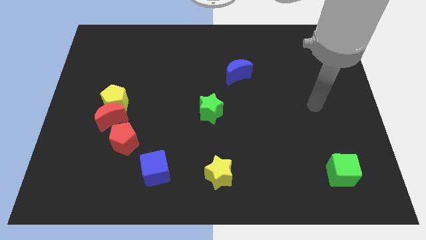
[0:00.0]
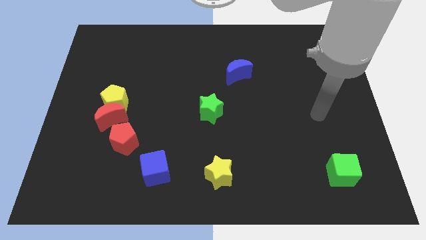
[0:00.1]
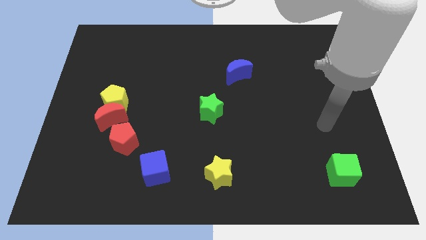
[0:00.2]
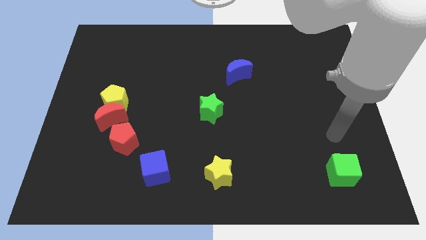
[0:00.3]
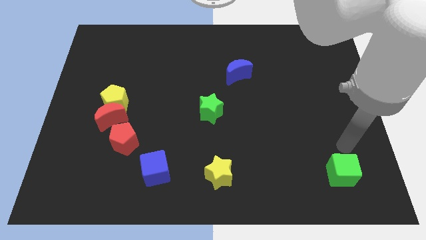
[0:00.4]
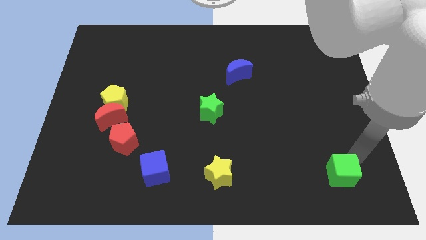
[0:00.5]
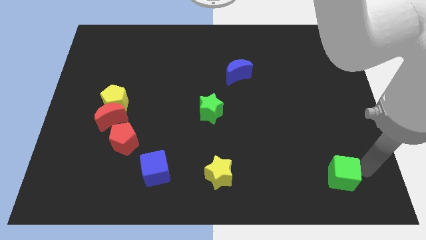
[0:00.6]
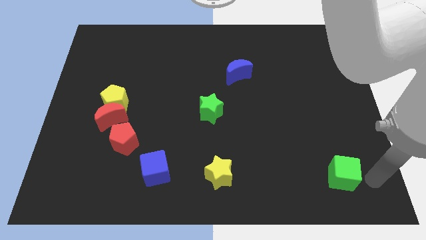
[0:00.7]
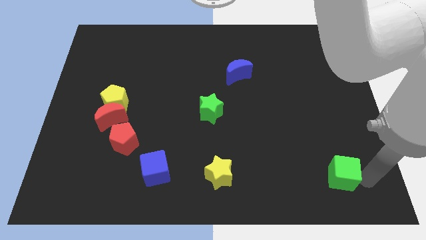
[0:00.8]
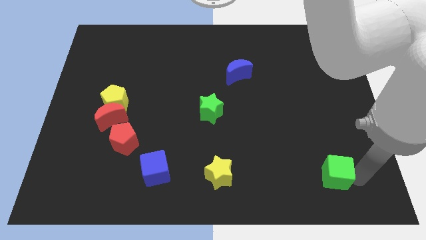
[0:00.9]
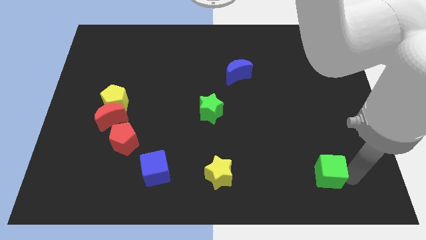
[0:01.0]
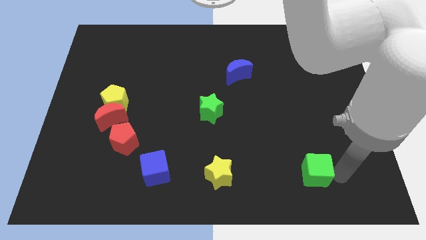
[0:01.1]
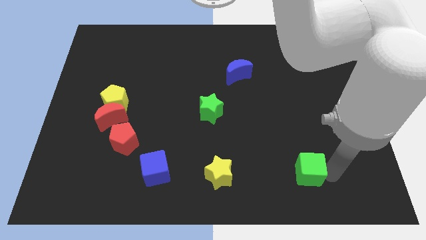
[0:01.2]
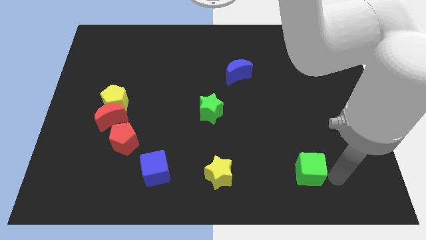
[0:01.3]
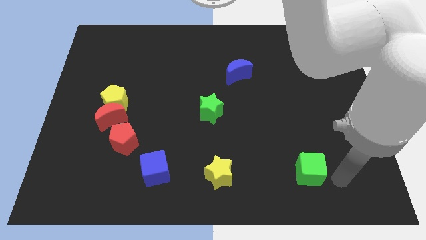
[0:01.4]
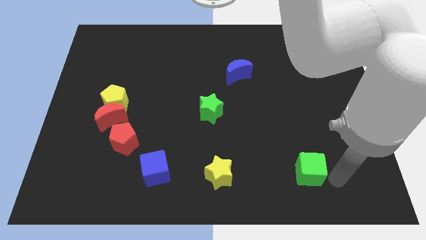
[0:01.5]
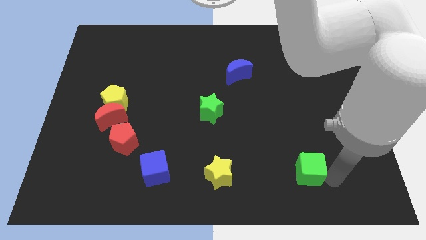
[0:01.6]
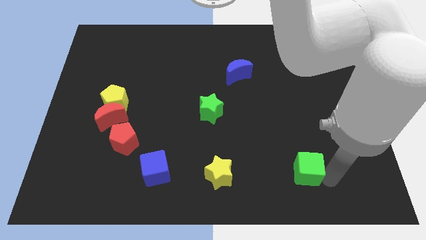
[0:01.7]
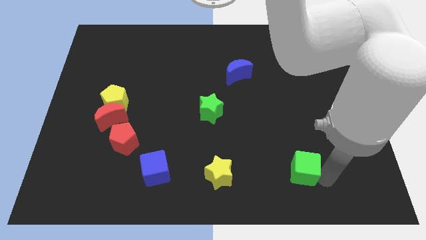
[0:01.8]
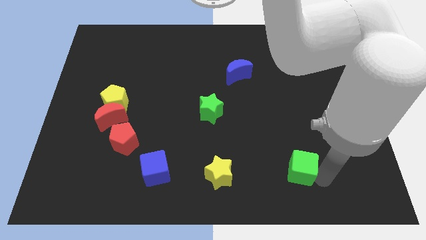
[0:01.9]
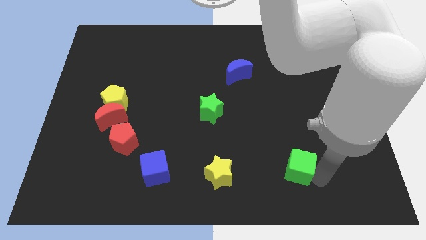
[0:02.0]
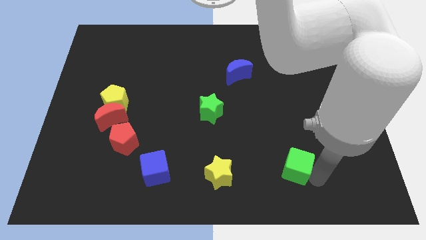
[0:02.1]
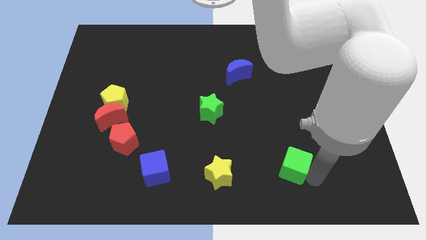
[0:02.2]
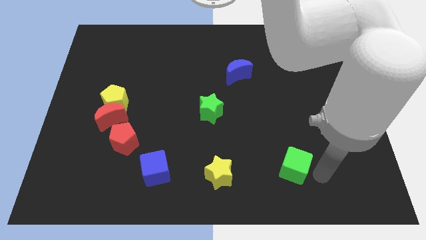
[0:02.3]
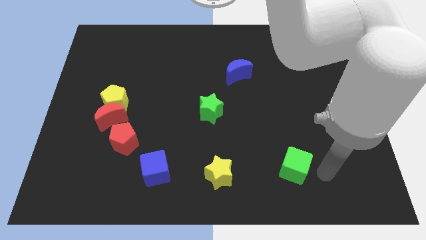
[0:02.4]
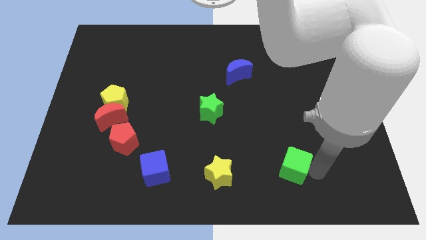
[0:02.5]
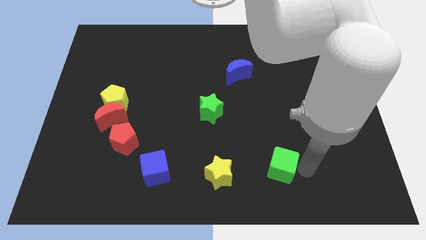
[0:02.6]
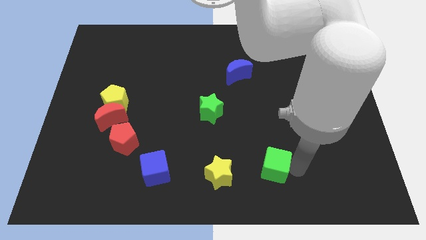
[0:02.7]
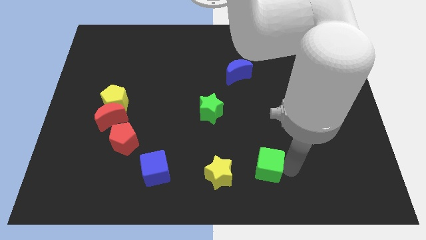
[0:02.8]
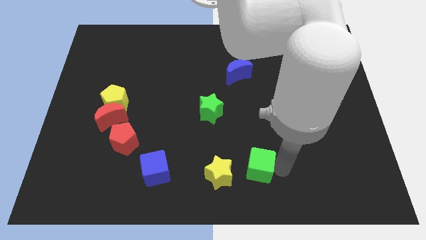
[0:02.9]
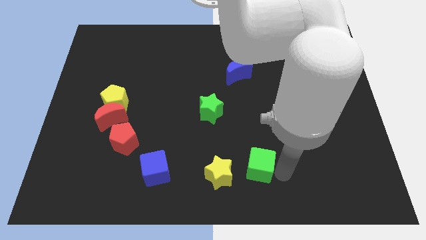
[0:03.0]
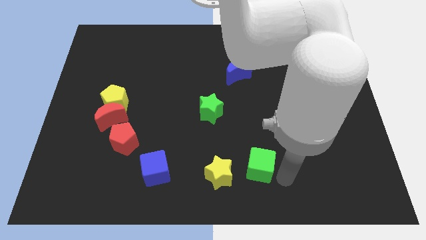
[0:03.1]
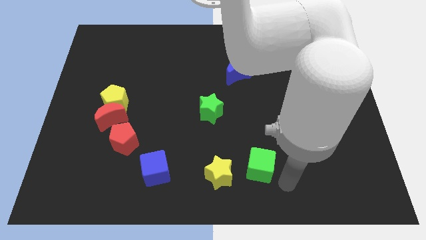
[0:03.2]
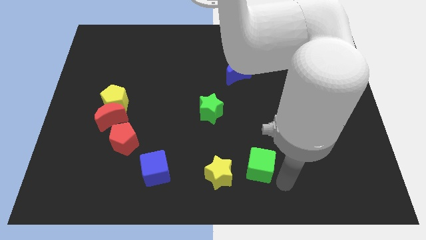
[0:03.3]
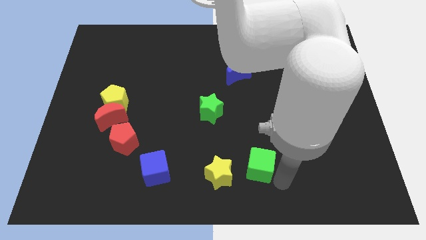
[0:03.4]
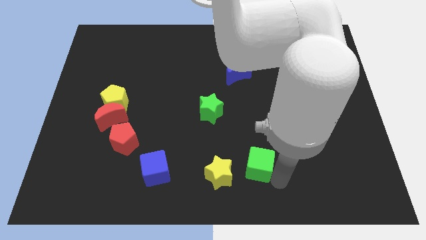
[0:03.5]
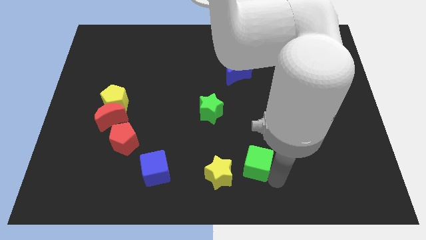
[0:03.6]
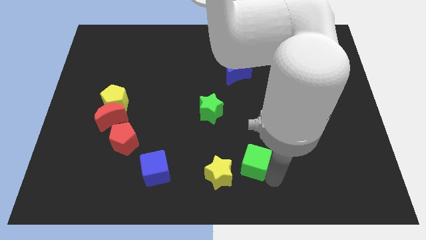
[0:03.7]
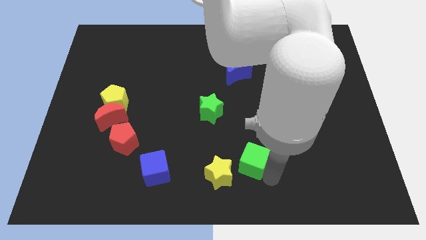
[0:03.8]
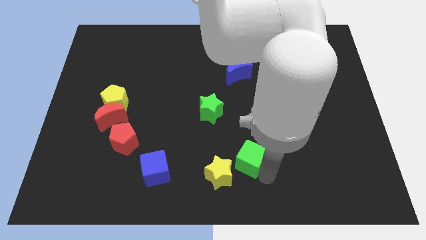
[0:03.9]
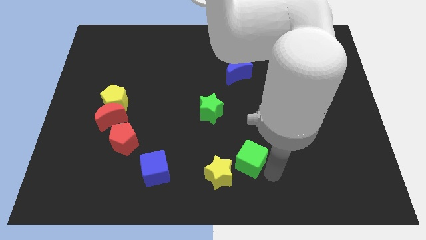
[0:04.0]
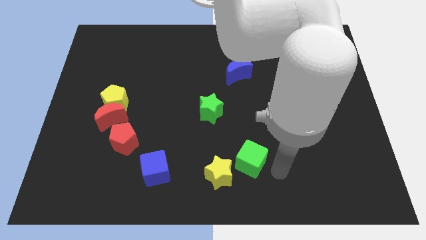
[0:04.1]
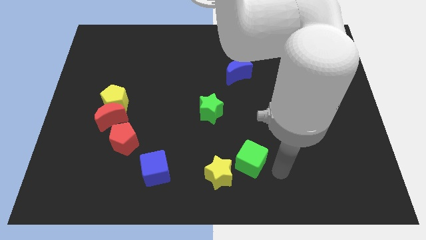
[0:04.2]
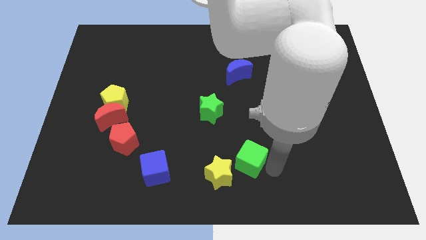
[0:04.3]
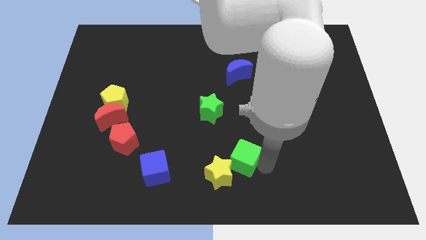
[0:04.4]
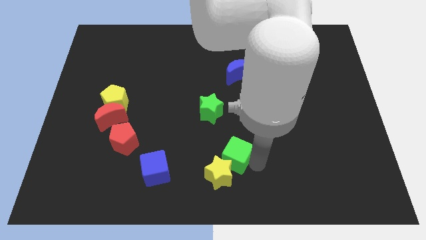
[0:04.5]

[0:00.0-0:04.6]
move the green cube to the left

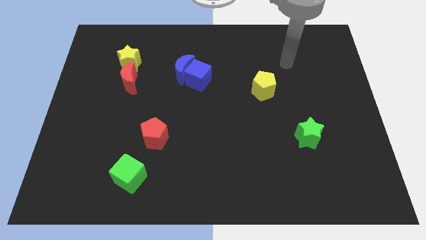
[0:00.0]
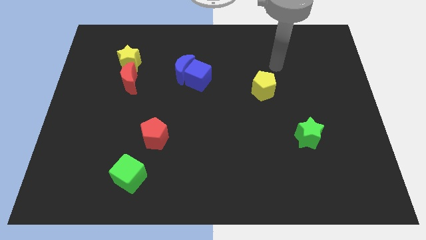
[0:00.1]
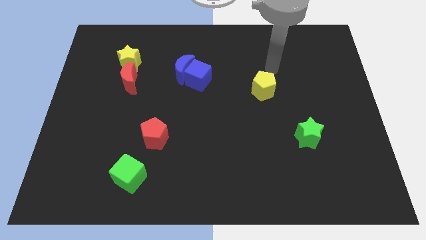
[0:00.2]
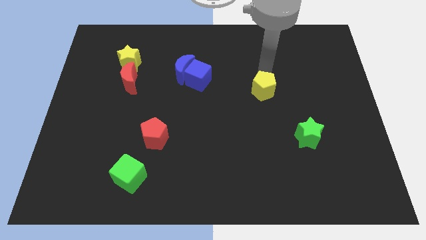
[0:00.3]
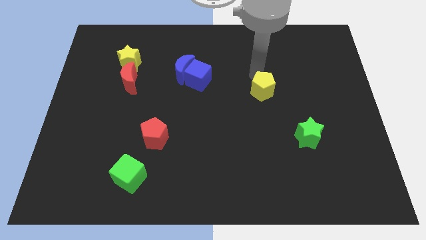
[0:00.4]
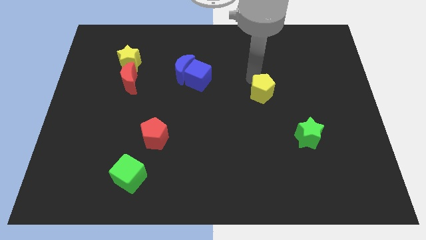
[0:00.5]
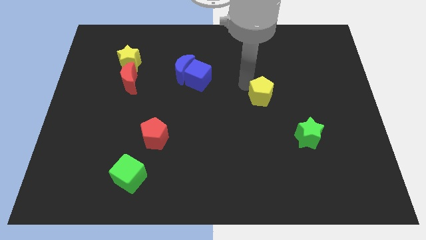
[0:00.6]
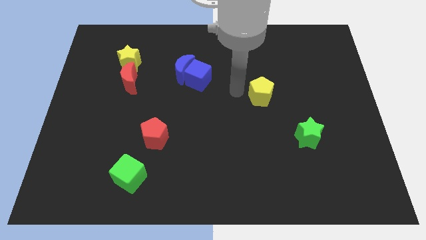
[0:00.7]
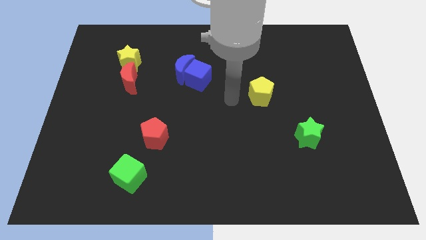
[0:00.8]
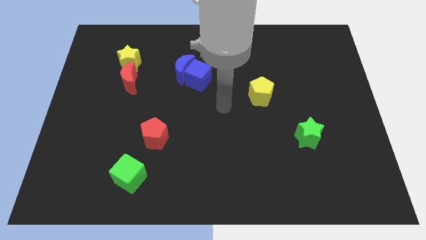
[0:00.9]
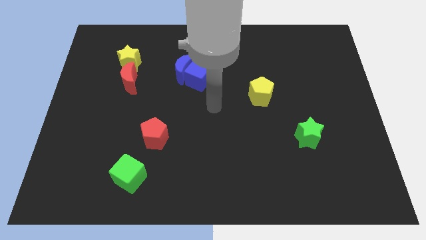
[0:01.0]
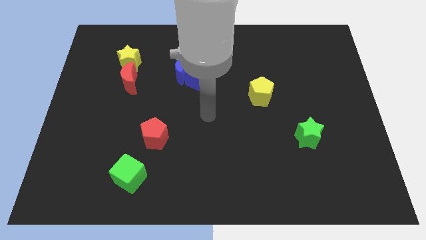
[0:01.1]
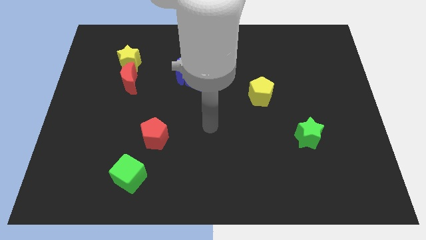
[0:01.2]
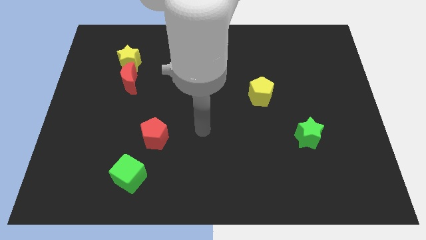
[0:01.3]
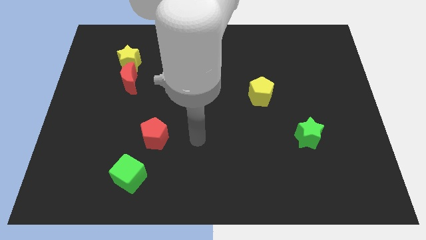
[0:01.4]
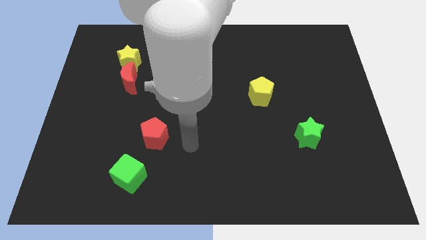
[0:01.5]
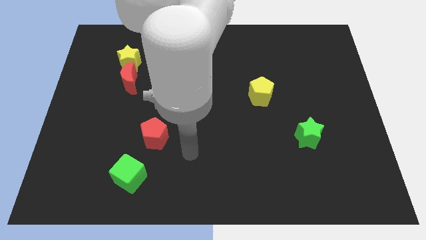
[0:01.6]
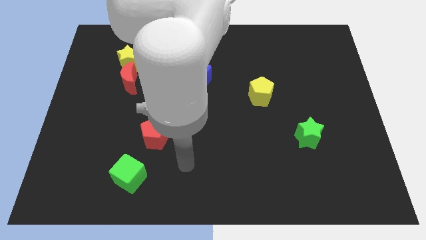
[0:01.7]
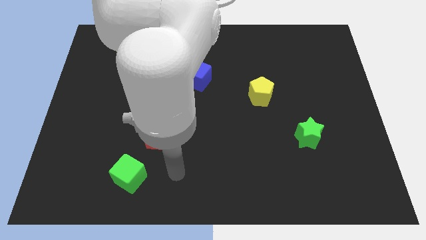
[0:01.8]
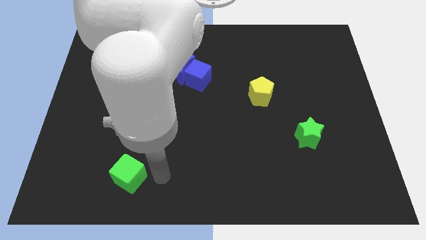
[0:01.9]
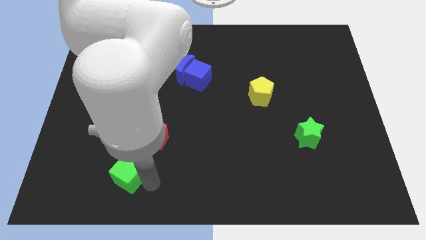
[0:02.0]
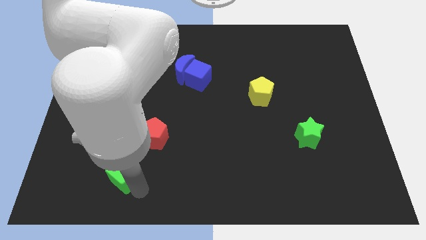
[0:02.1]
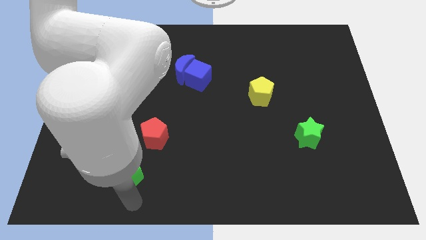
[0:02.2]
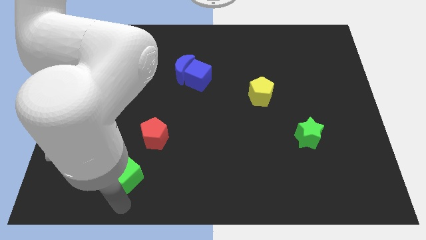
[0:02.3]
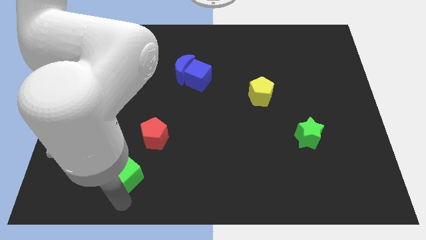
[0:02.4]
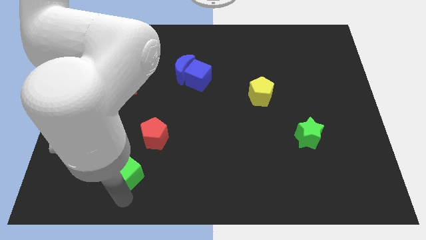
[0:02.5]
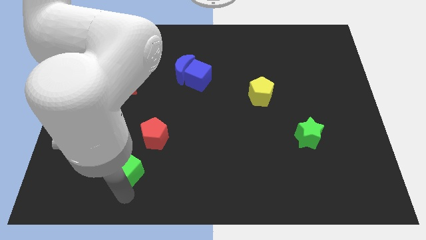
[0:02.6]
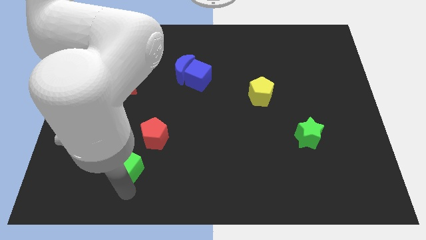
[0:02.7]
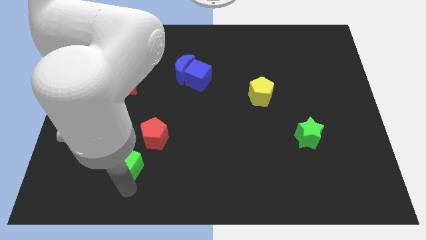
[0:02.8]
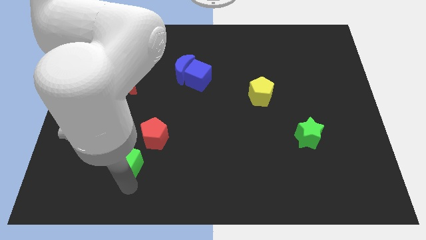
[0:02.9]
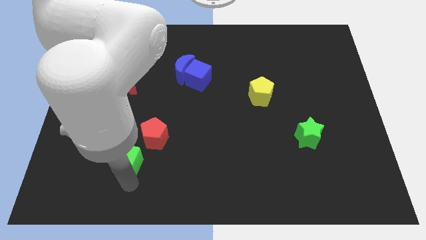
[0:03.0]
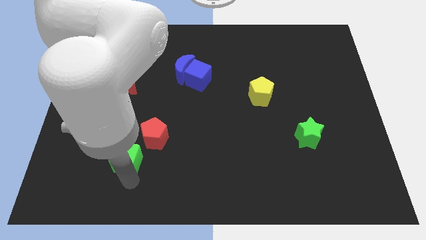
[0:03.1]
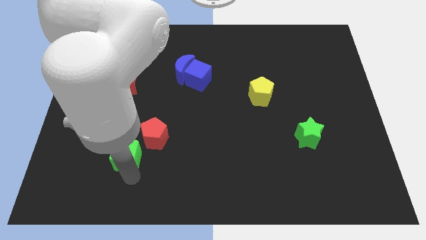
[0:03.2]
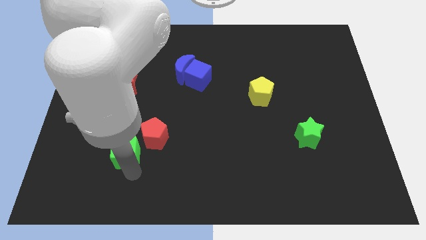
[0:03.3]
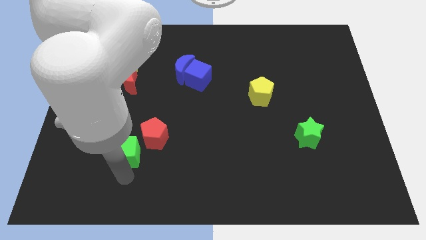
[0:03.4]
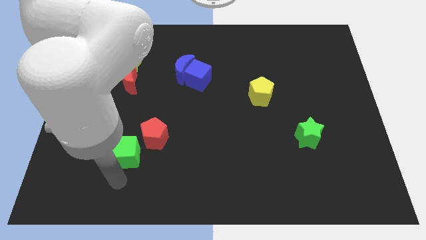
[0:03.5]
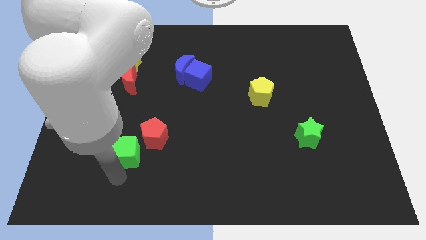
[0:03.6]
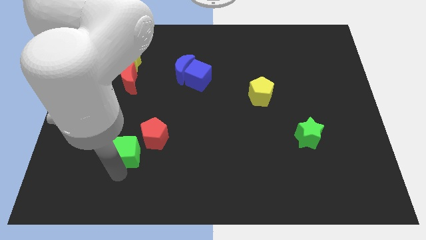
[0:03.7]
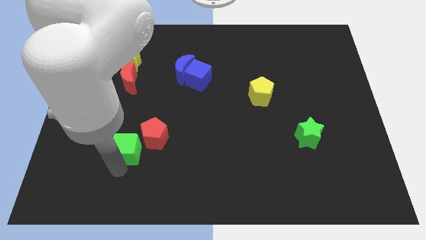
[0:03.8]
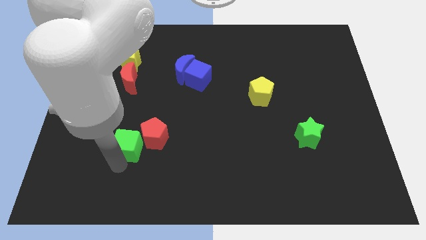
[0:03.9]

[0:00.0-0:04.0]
slightly move the green cube upwards
